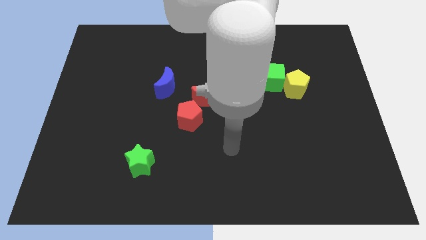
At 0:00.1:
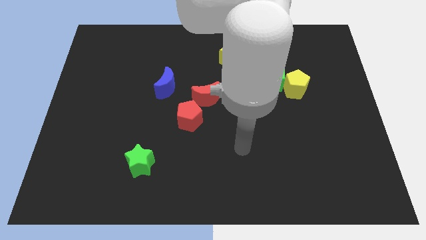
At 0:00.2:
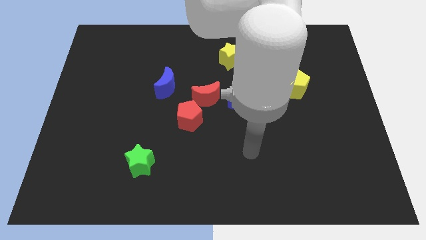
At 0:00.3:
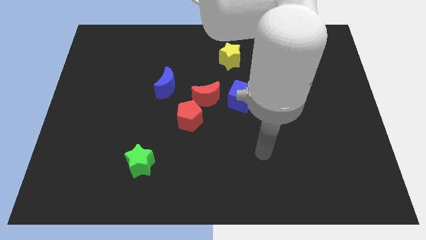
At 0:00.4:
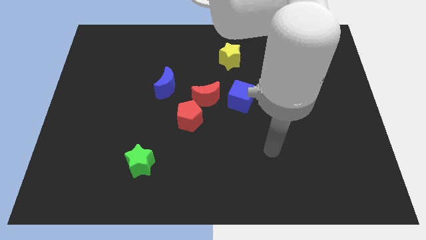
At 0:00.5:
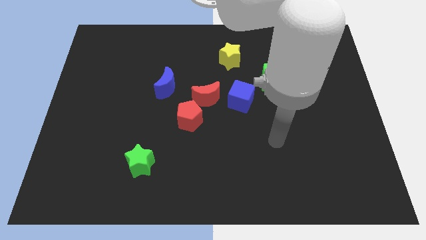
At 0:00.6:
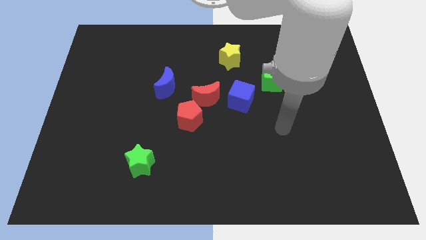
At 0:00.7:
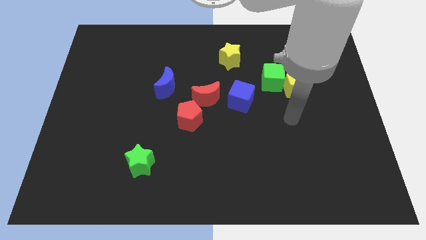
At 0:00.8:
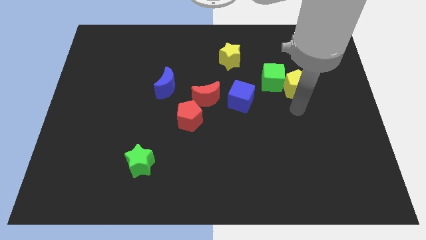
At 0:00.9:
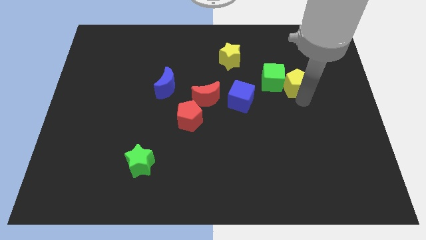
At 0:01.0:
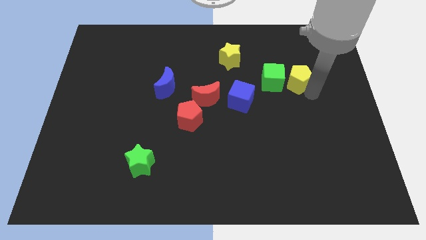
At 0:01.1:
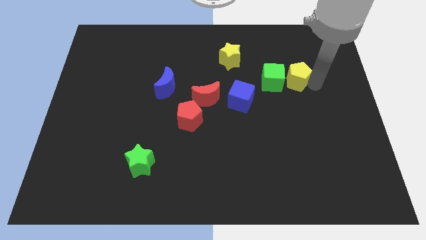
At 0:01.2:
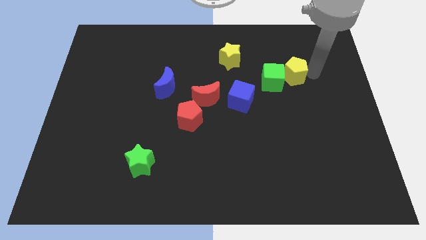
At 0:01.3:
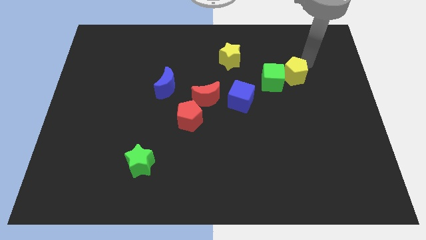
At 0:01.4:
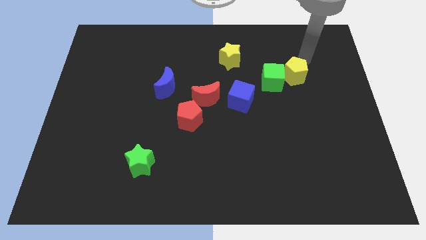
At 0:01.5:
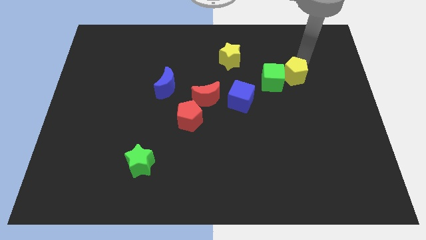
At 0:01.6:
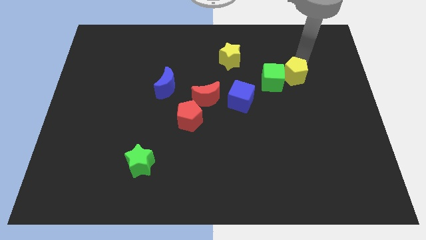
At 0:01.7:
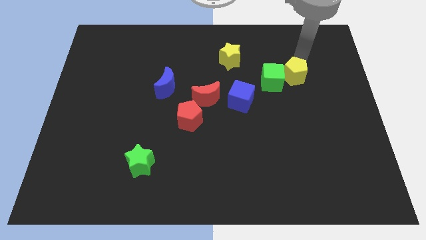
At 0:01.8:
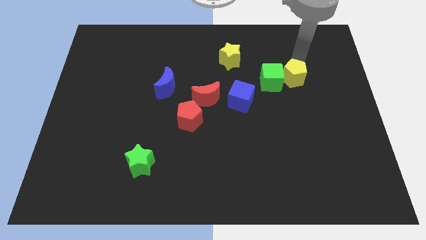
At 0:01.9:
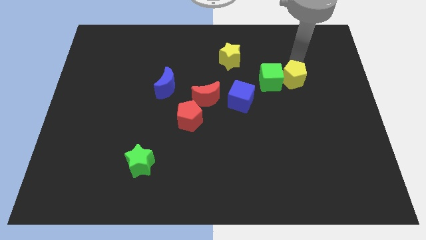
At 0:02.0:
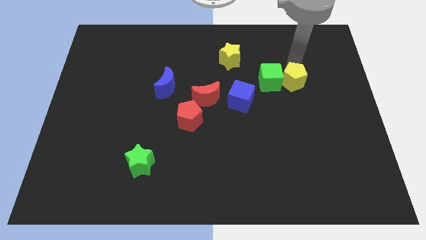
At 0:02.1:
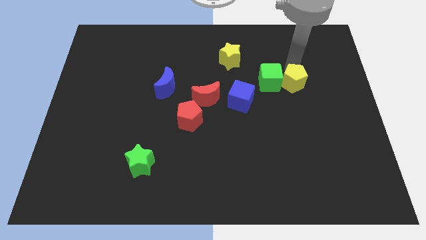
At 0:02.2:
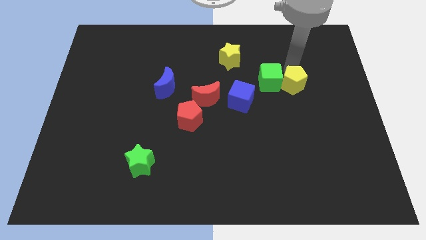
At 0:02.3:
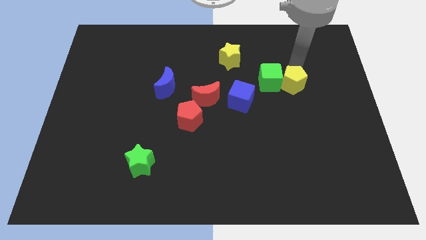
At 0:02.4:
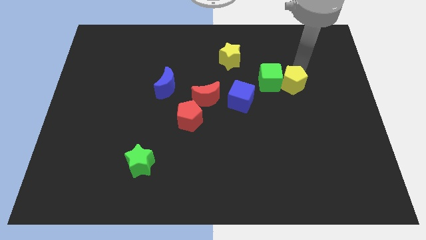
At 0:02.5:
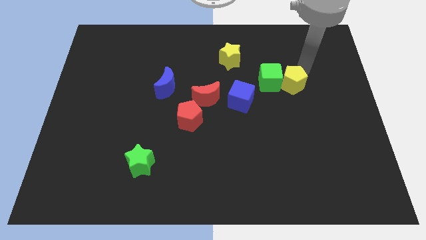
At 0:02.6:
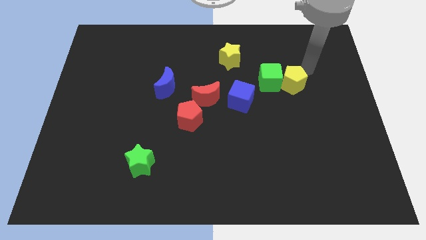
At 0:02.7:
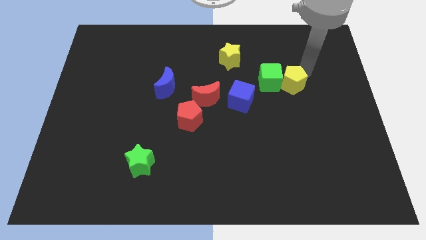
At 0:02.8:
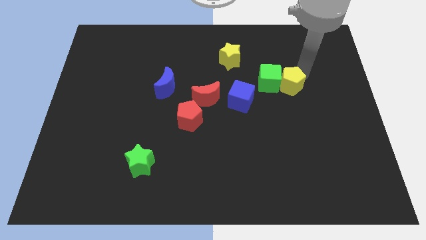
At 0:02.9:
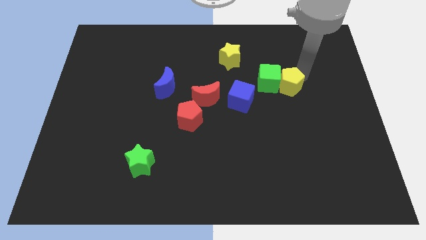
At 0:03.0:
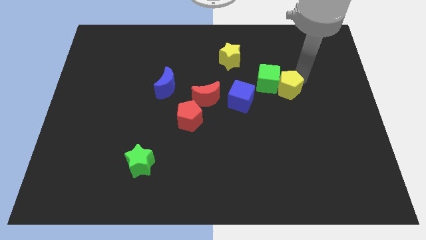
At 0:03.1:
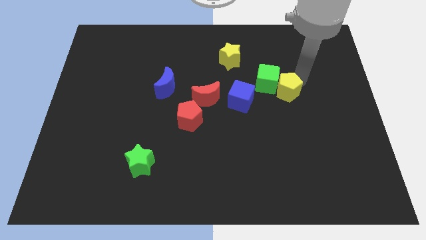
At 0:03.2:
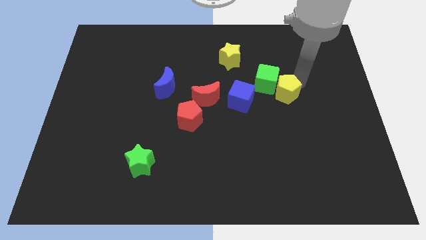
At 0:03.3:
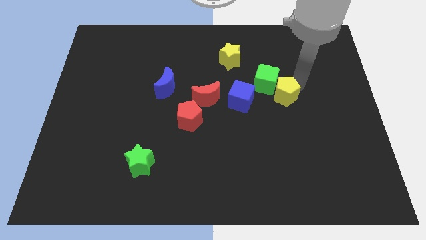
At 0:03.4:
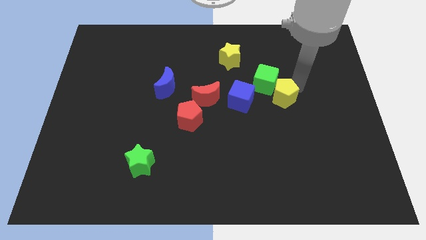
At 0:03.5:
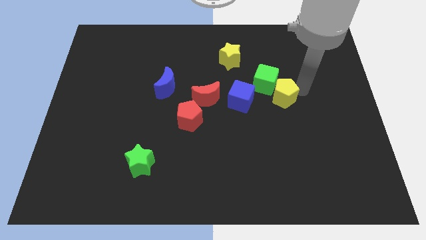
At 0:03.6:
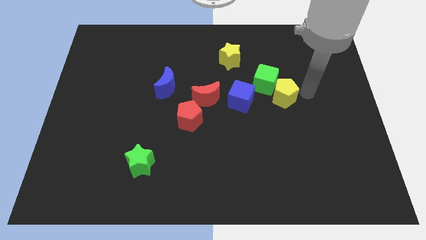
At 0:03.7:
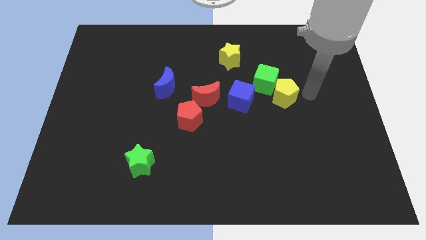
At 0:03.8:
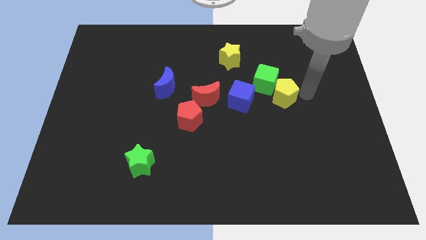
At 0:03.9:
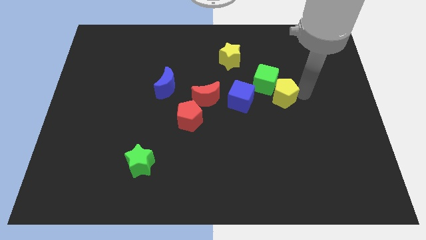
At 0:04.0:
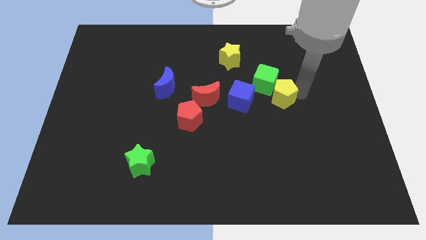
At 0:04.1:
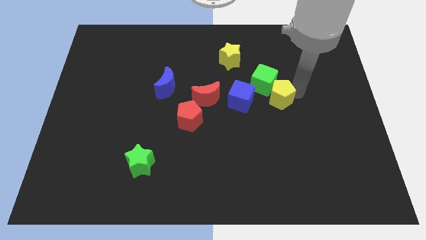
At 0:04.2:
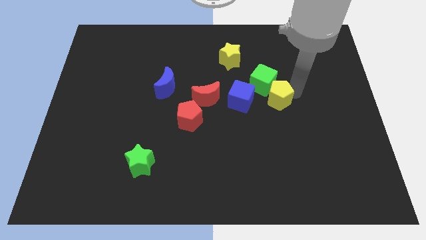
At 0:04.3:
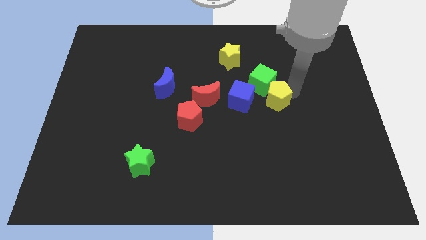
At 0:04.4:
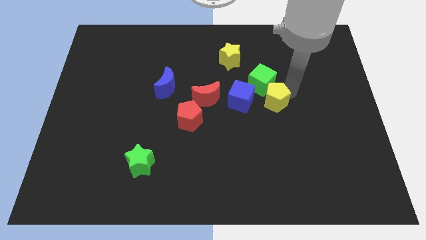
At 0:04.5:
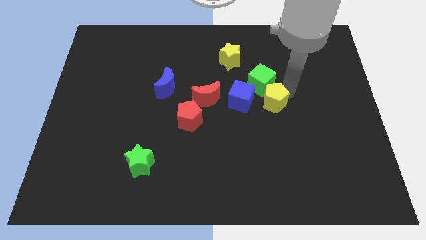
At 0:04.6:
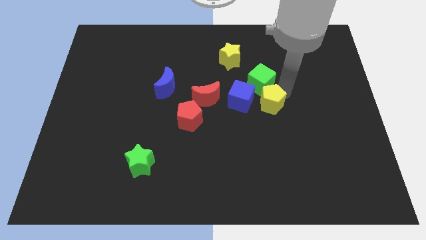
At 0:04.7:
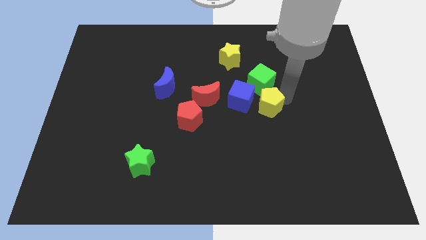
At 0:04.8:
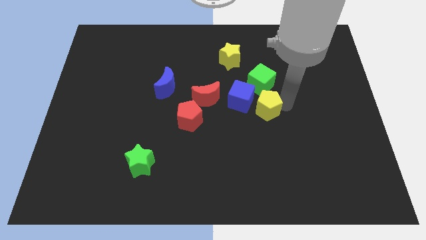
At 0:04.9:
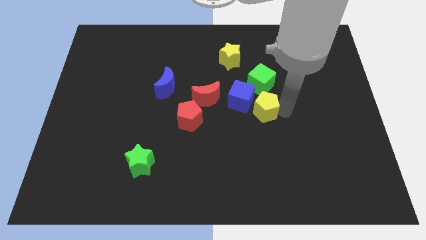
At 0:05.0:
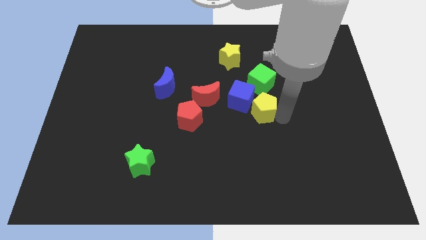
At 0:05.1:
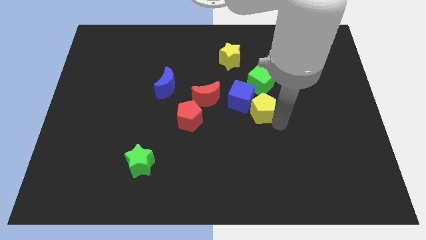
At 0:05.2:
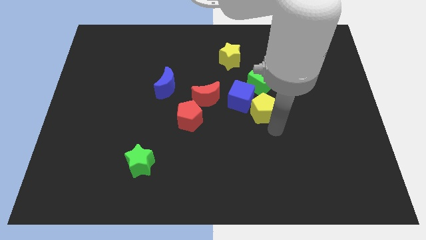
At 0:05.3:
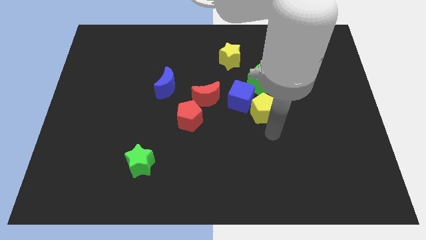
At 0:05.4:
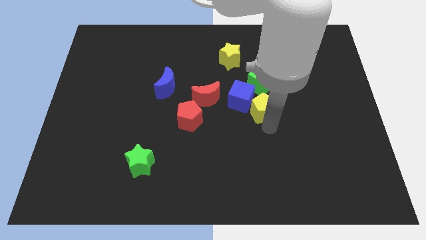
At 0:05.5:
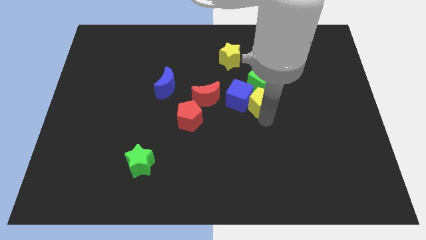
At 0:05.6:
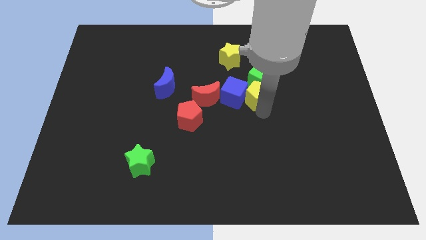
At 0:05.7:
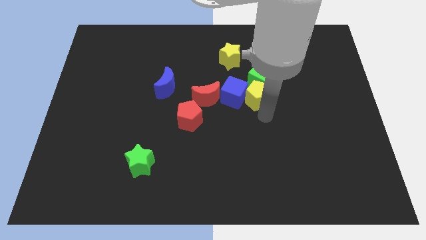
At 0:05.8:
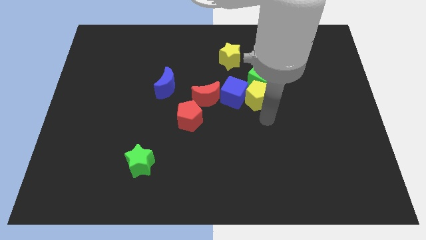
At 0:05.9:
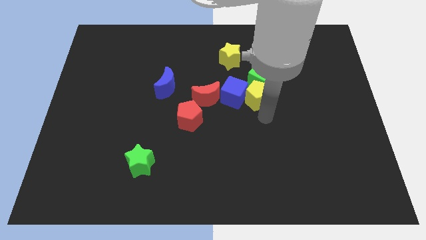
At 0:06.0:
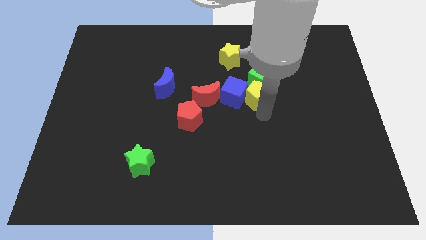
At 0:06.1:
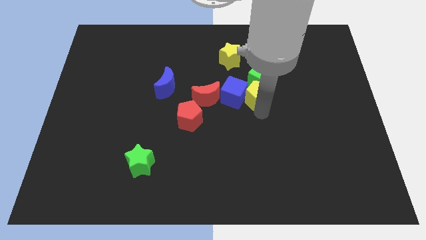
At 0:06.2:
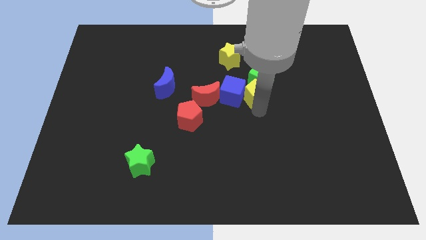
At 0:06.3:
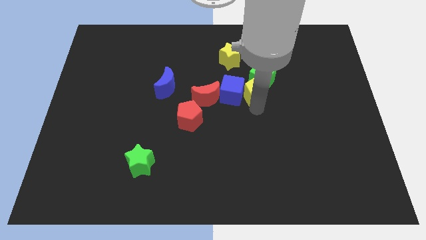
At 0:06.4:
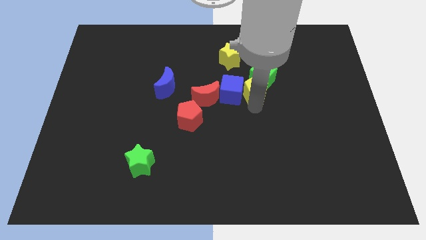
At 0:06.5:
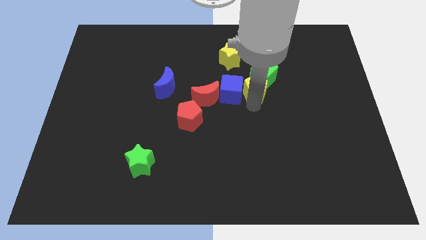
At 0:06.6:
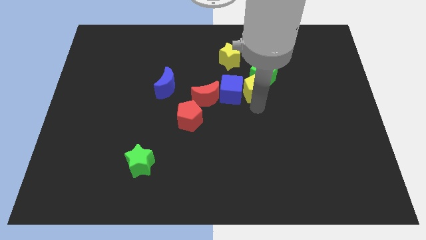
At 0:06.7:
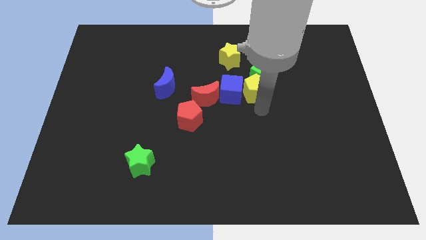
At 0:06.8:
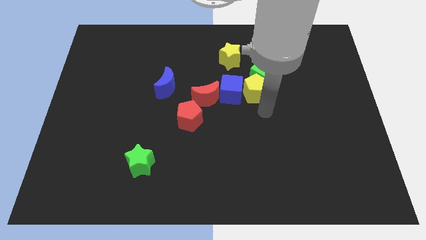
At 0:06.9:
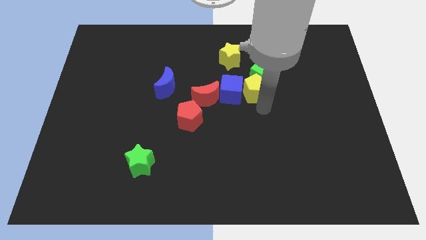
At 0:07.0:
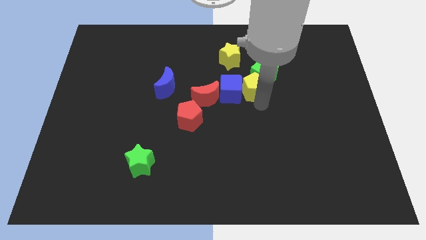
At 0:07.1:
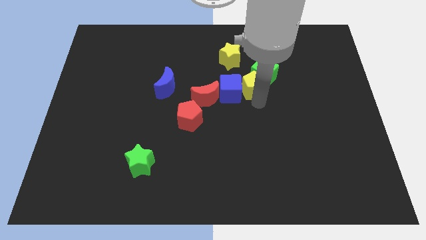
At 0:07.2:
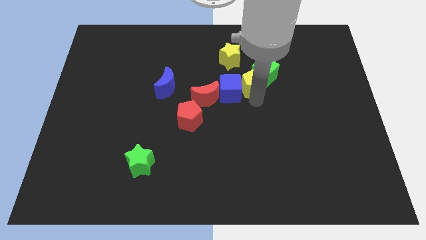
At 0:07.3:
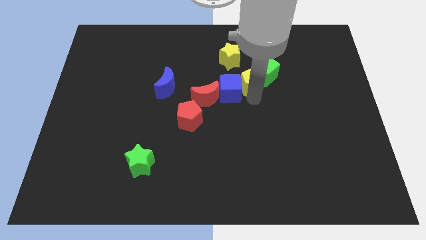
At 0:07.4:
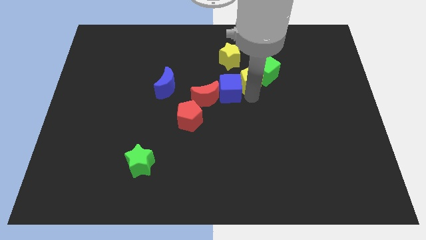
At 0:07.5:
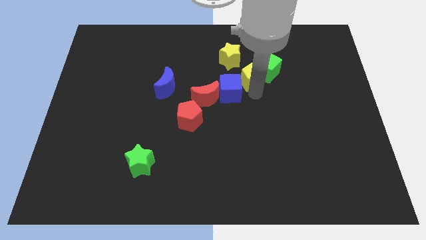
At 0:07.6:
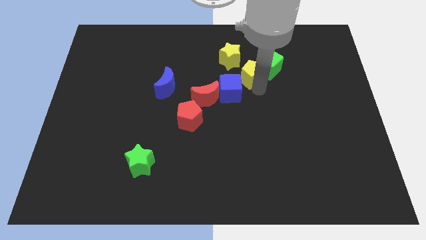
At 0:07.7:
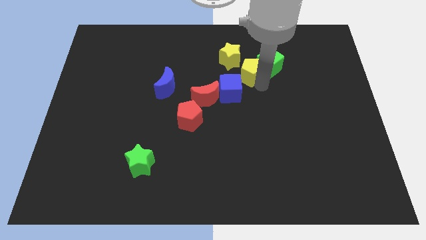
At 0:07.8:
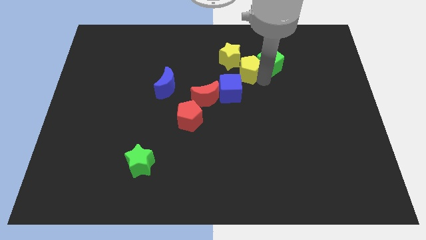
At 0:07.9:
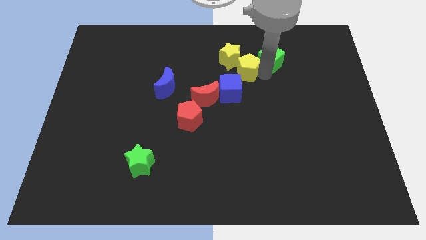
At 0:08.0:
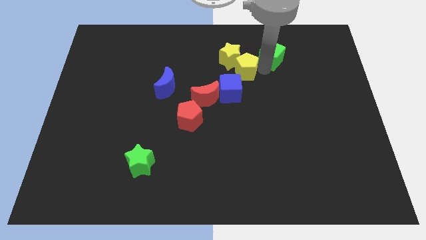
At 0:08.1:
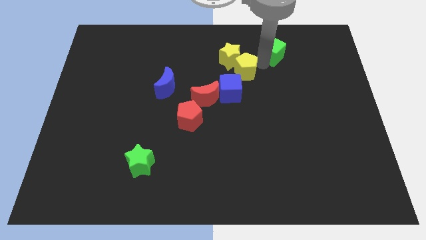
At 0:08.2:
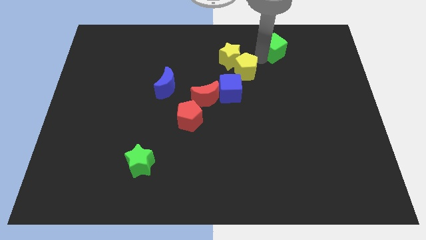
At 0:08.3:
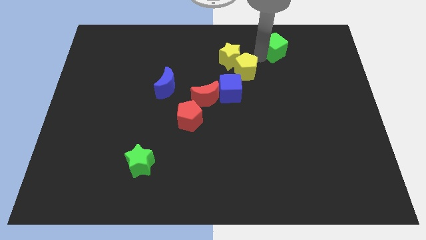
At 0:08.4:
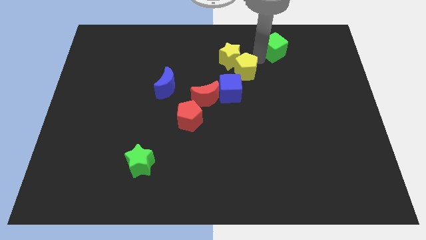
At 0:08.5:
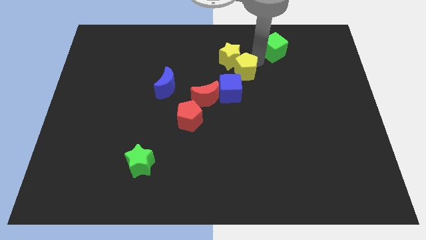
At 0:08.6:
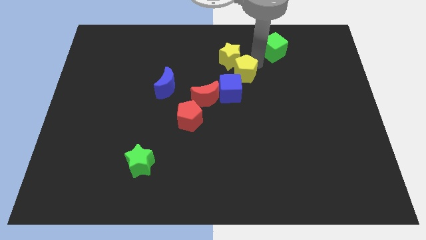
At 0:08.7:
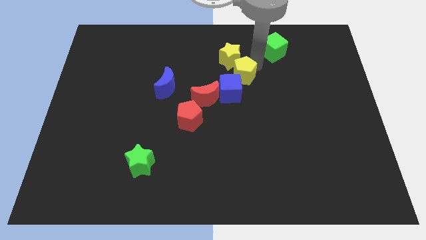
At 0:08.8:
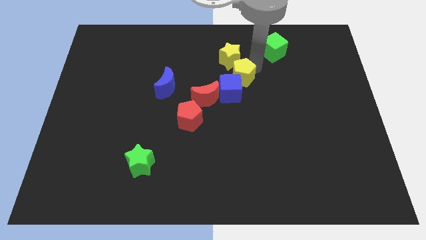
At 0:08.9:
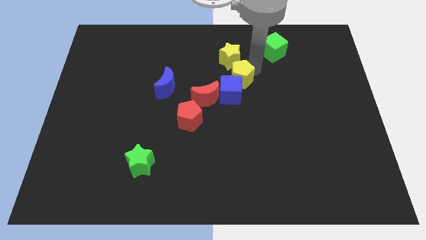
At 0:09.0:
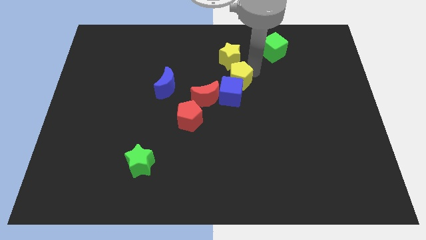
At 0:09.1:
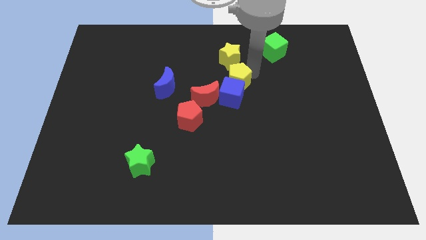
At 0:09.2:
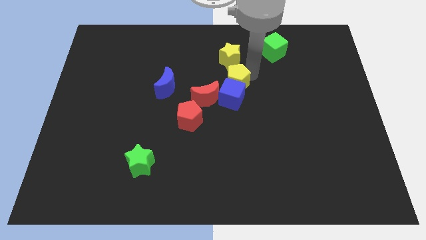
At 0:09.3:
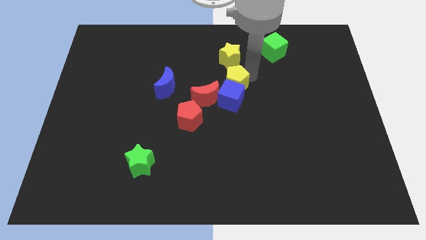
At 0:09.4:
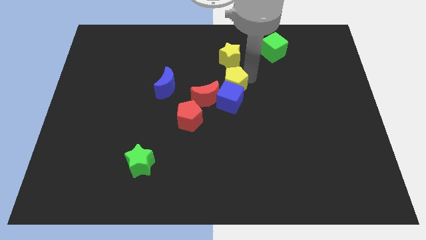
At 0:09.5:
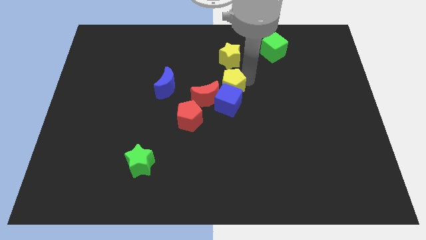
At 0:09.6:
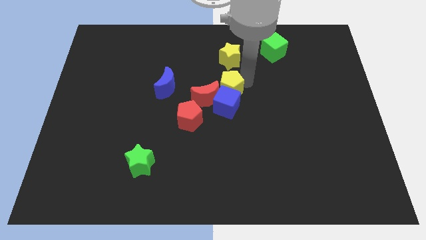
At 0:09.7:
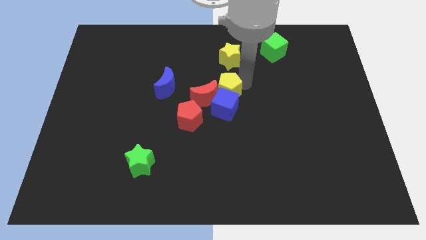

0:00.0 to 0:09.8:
put the yellow pentagon next to the red moon
